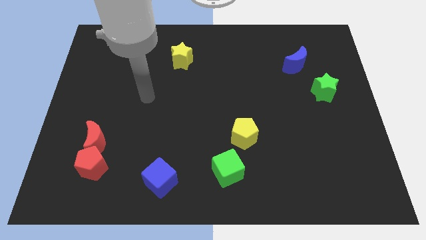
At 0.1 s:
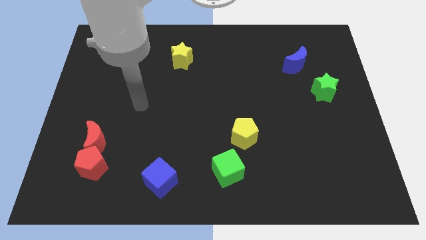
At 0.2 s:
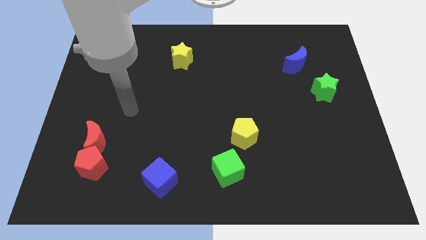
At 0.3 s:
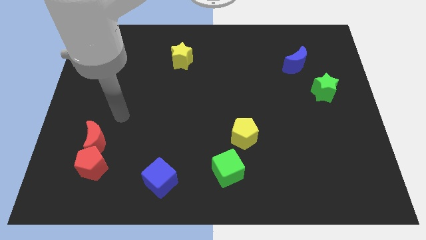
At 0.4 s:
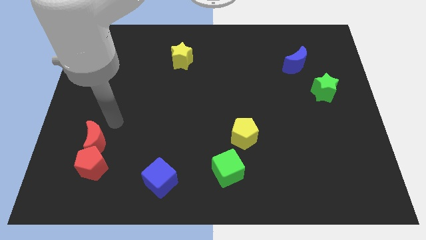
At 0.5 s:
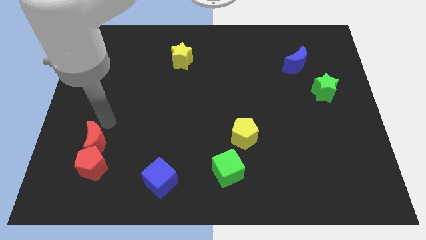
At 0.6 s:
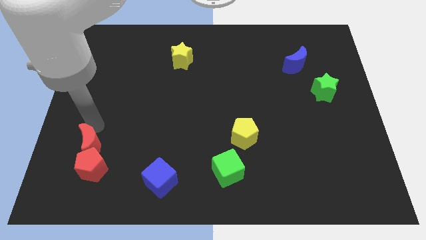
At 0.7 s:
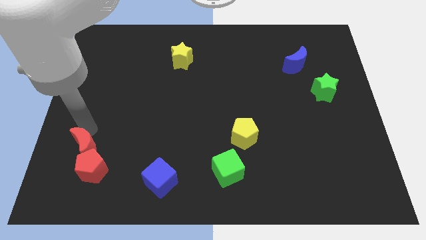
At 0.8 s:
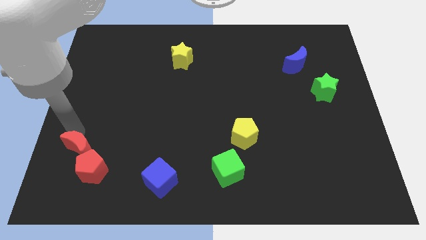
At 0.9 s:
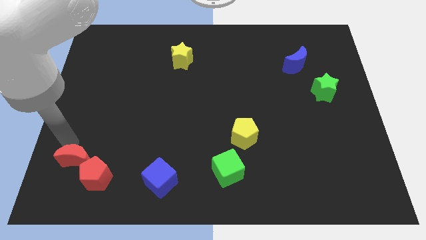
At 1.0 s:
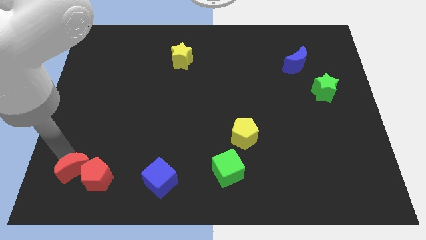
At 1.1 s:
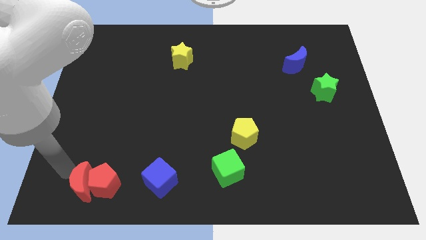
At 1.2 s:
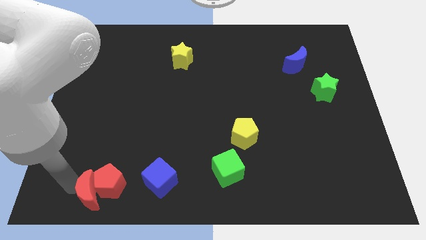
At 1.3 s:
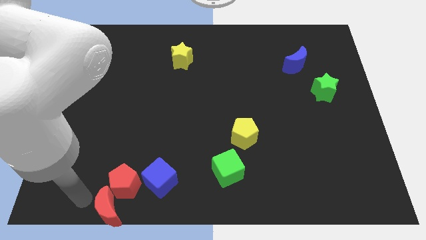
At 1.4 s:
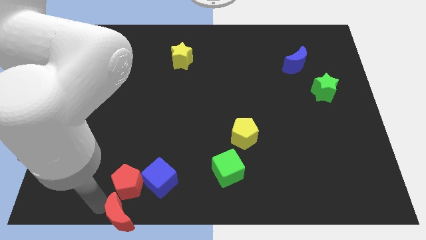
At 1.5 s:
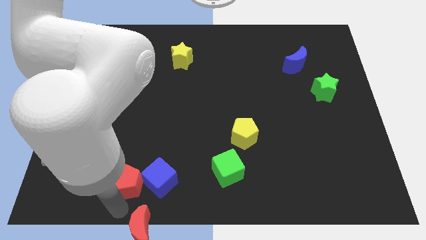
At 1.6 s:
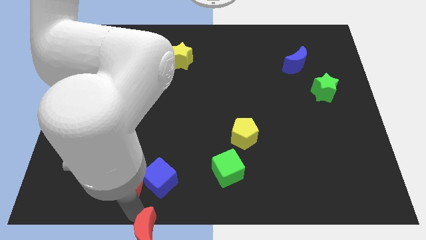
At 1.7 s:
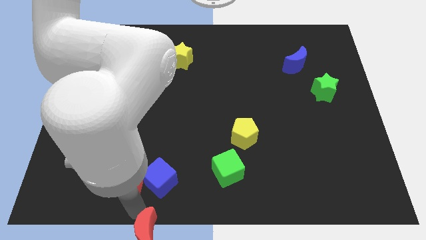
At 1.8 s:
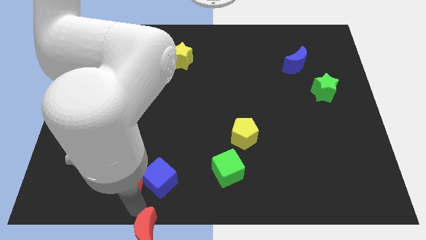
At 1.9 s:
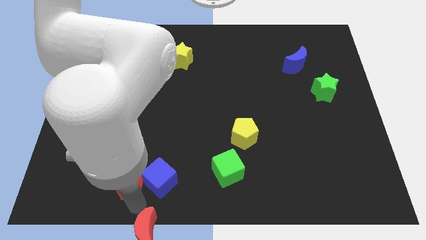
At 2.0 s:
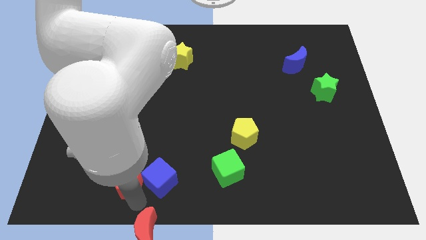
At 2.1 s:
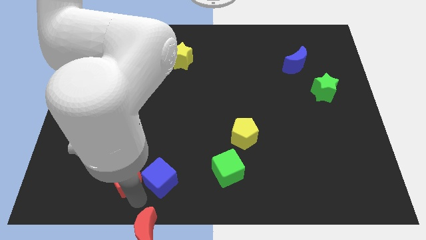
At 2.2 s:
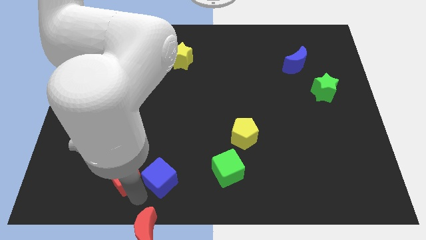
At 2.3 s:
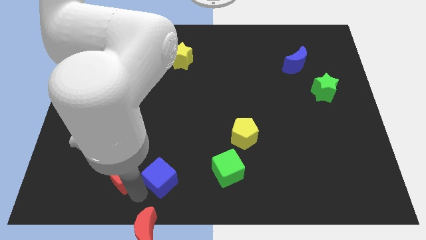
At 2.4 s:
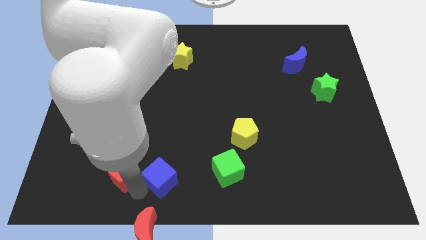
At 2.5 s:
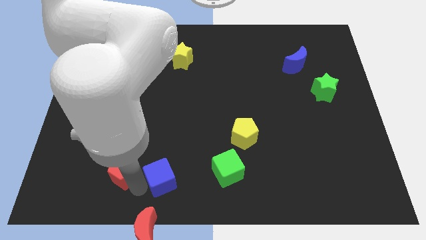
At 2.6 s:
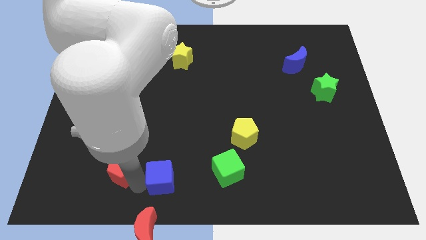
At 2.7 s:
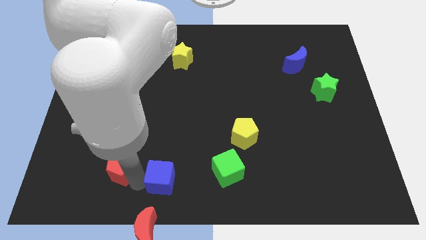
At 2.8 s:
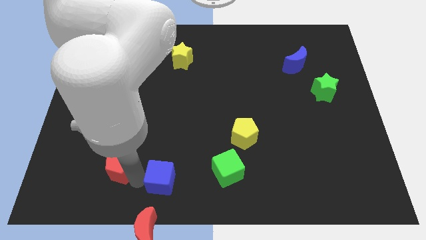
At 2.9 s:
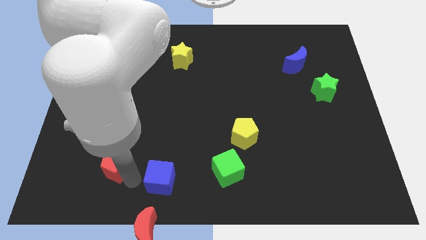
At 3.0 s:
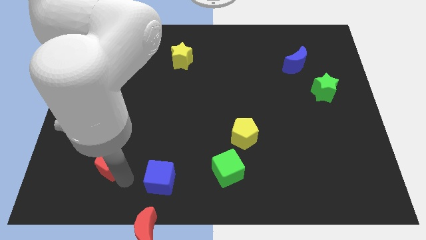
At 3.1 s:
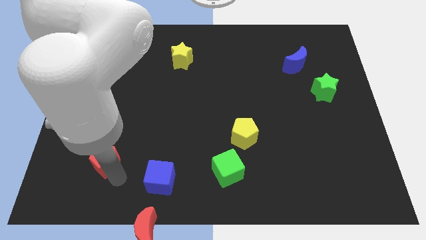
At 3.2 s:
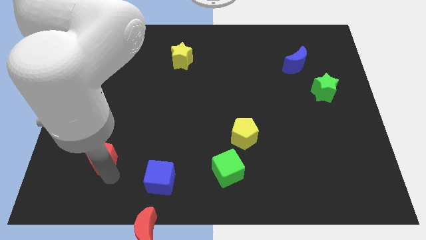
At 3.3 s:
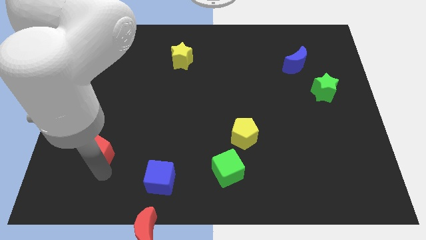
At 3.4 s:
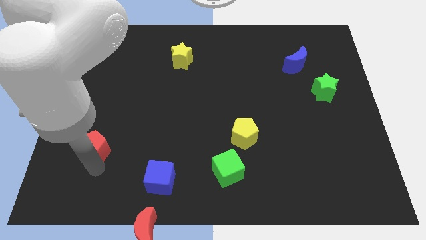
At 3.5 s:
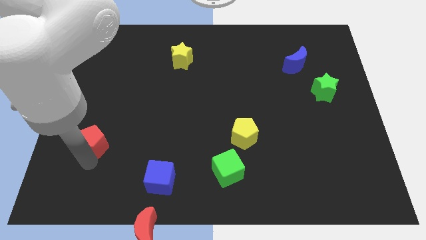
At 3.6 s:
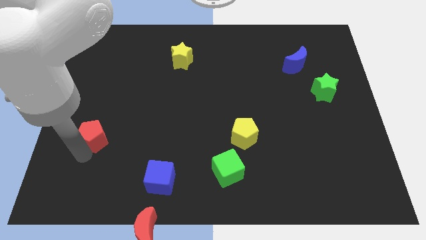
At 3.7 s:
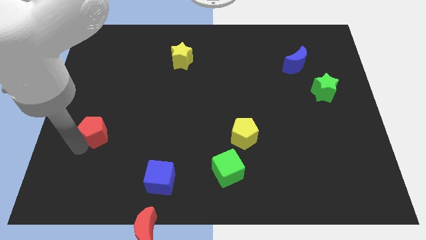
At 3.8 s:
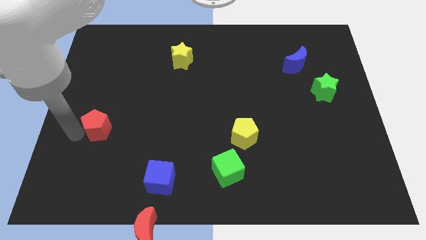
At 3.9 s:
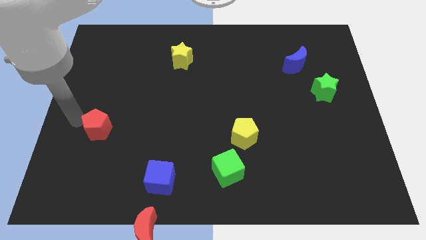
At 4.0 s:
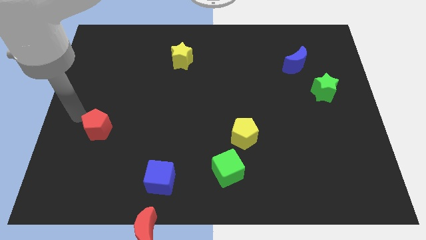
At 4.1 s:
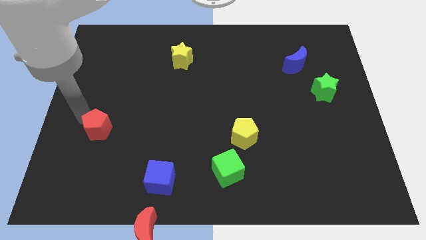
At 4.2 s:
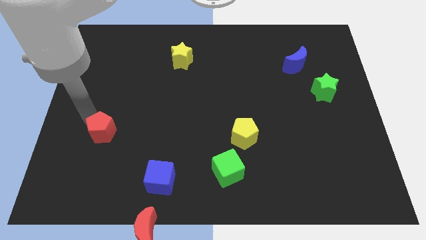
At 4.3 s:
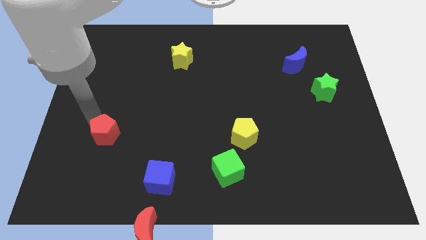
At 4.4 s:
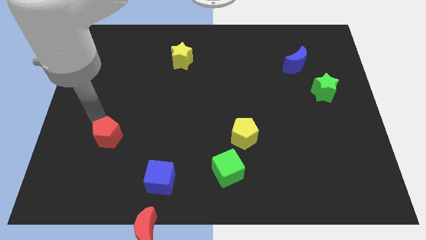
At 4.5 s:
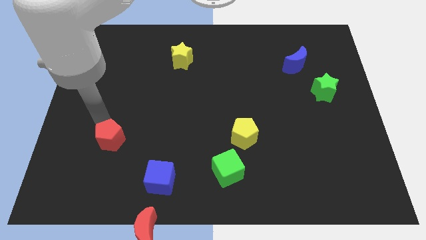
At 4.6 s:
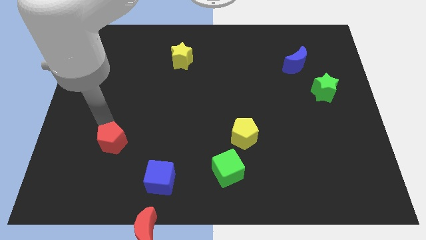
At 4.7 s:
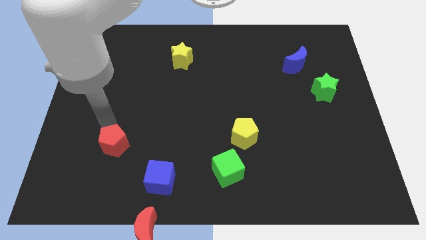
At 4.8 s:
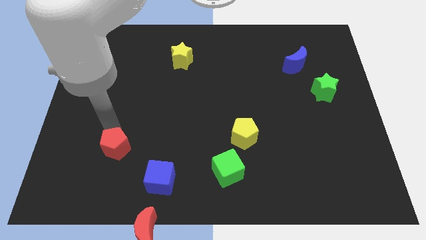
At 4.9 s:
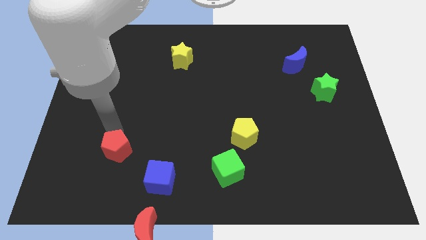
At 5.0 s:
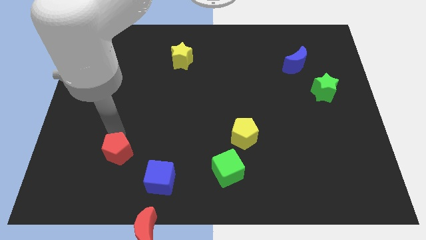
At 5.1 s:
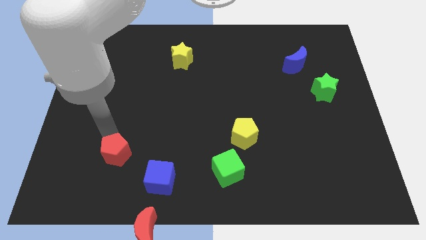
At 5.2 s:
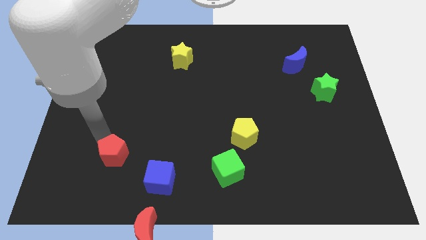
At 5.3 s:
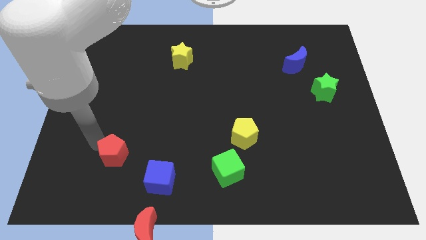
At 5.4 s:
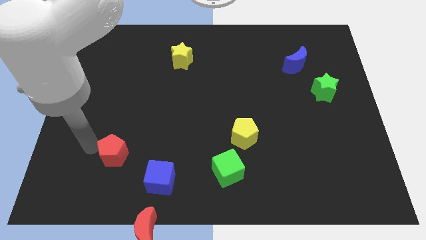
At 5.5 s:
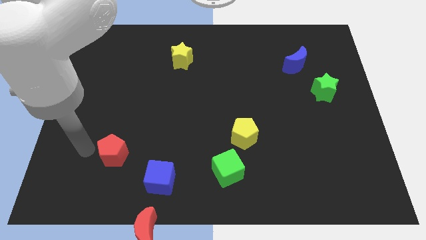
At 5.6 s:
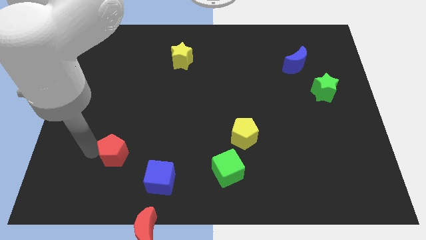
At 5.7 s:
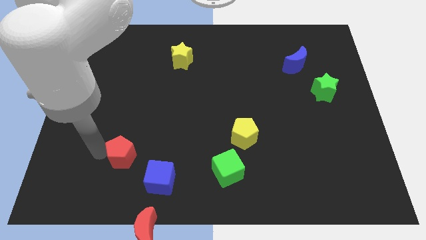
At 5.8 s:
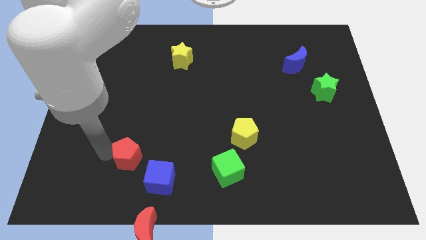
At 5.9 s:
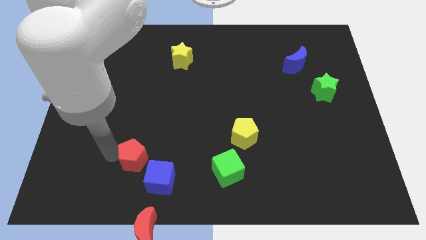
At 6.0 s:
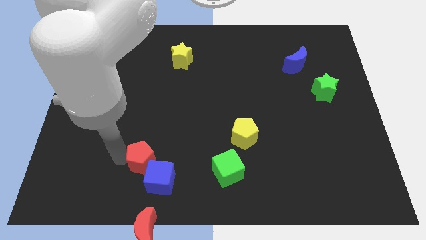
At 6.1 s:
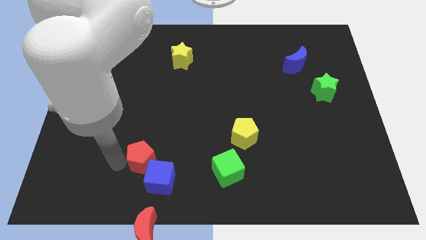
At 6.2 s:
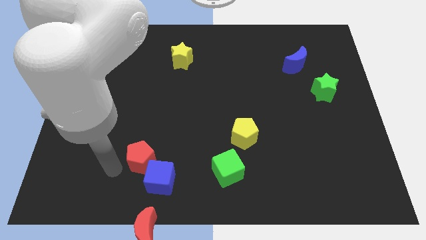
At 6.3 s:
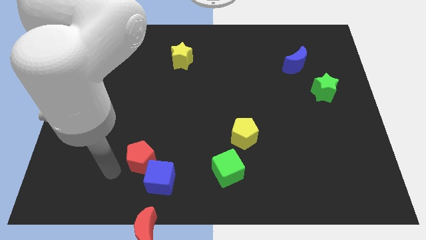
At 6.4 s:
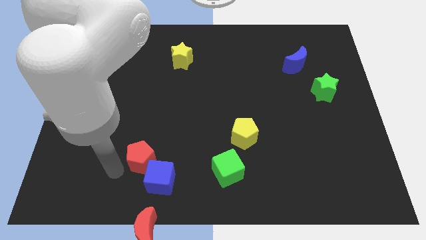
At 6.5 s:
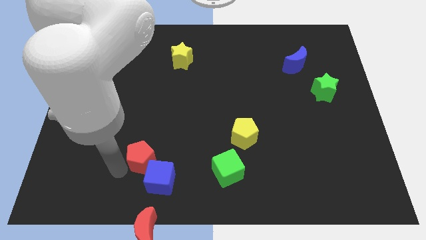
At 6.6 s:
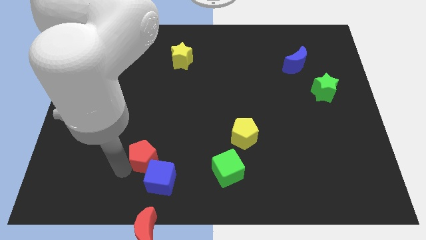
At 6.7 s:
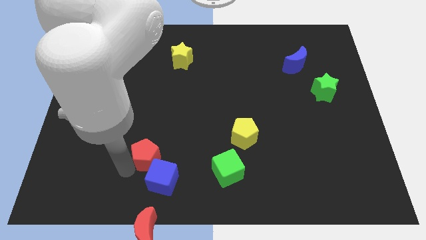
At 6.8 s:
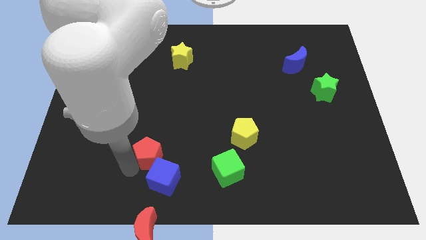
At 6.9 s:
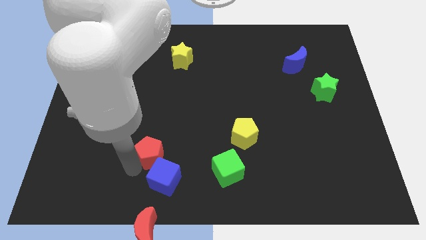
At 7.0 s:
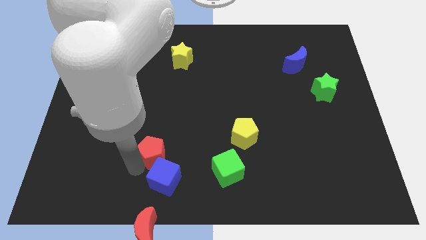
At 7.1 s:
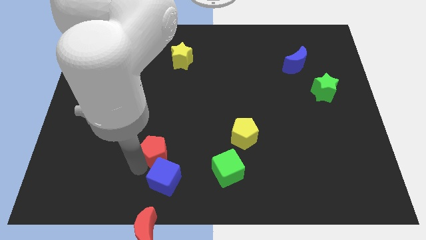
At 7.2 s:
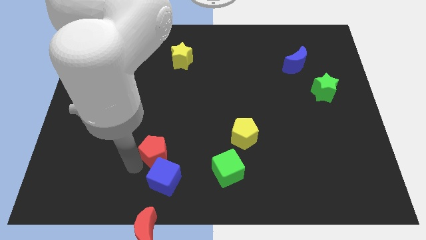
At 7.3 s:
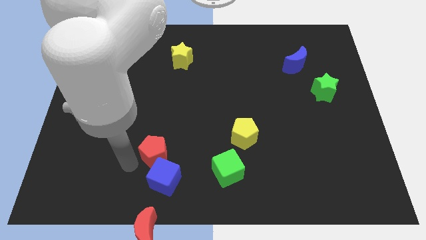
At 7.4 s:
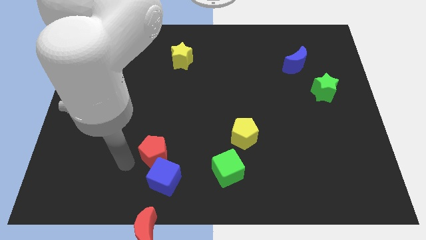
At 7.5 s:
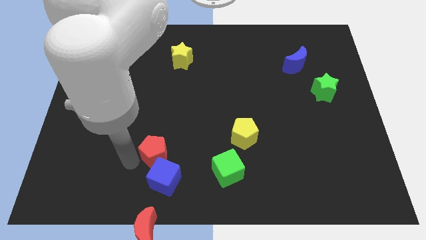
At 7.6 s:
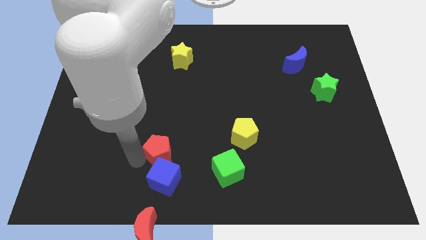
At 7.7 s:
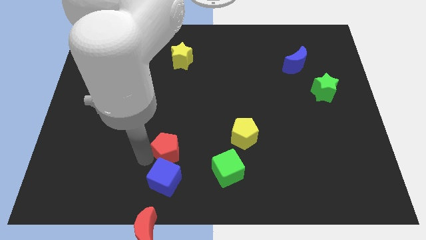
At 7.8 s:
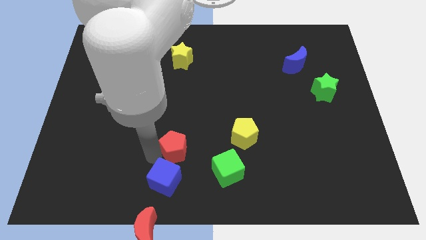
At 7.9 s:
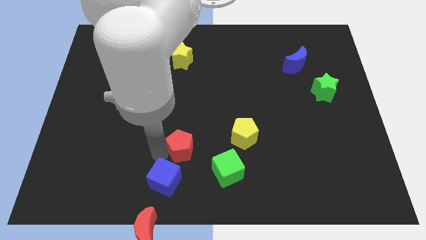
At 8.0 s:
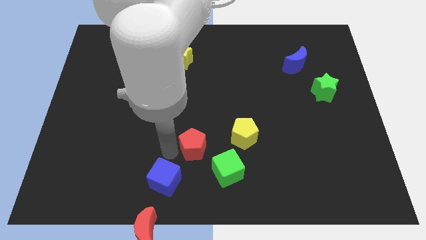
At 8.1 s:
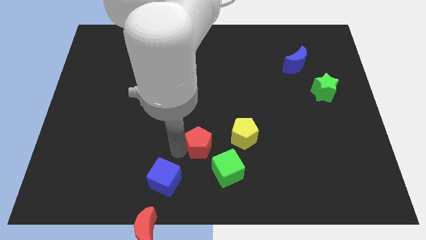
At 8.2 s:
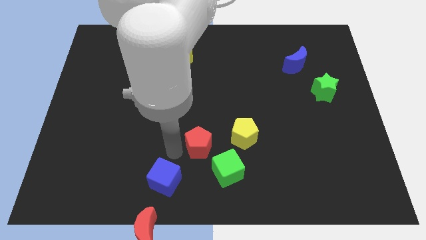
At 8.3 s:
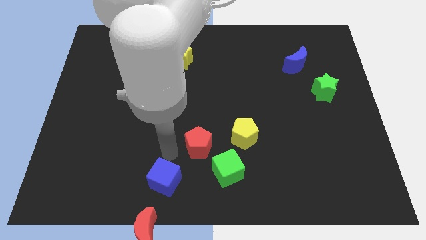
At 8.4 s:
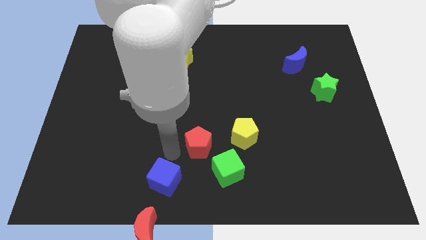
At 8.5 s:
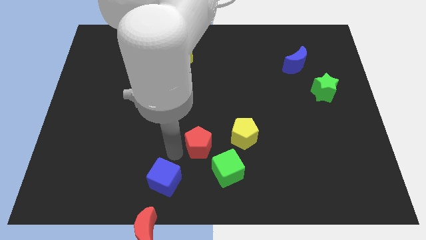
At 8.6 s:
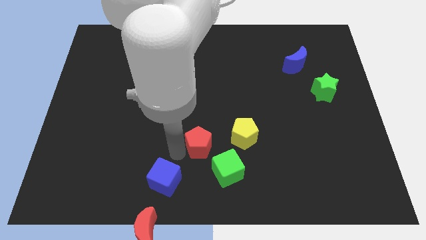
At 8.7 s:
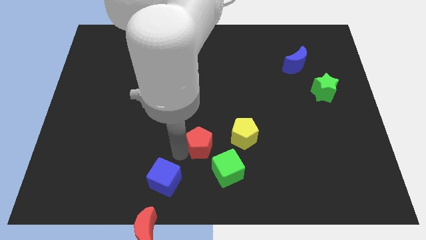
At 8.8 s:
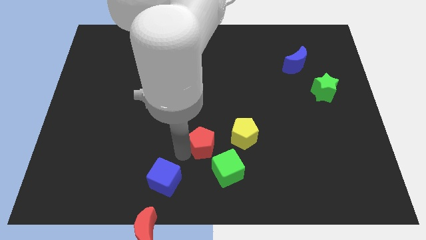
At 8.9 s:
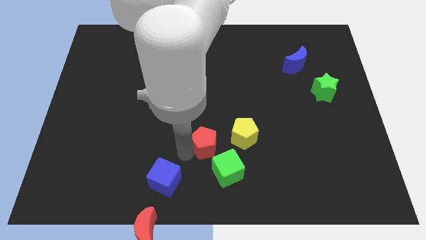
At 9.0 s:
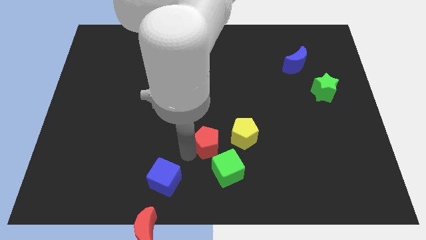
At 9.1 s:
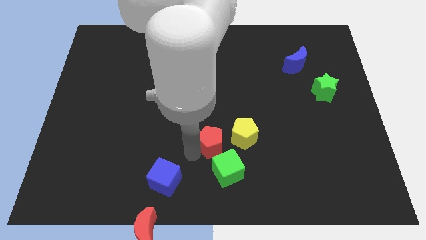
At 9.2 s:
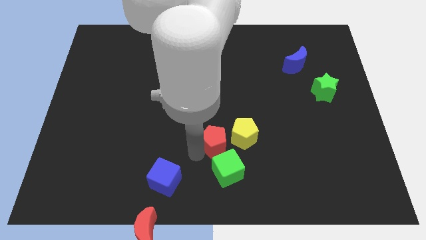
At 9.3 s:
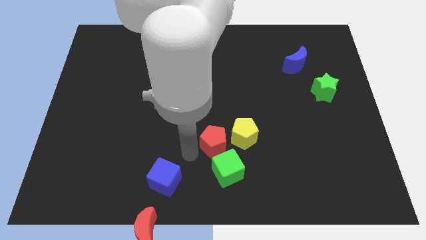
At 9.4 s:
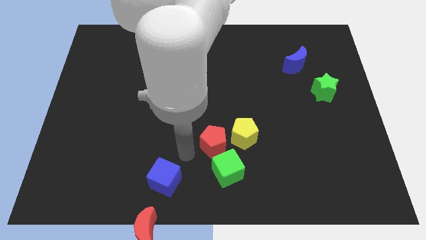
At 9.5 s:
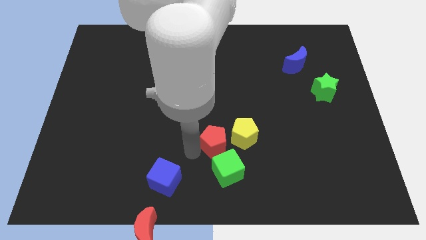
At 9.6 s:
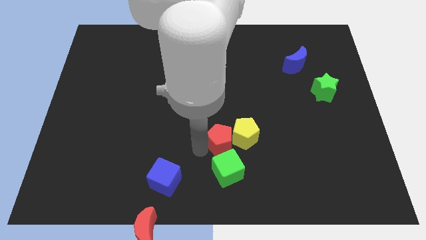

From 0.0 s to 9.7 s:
put the red pentagon to the yellow pentagon
